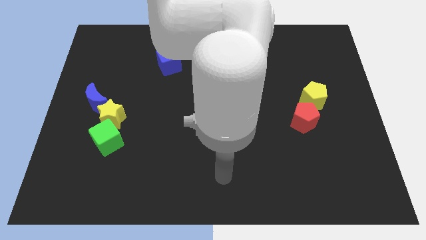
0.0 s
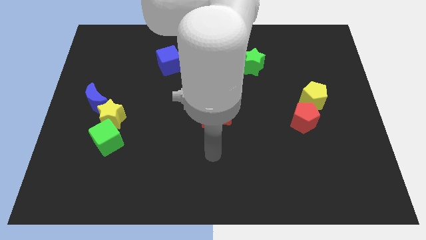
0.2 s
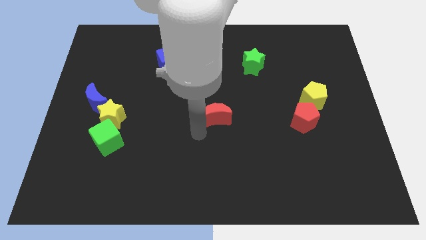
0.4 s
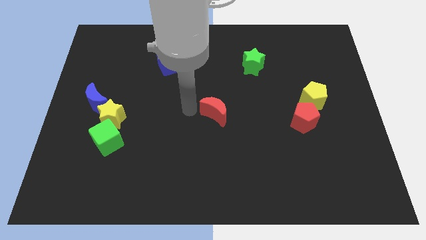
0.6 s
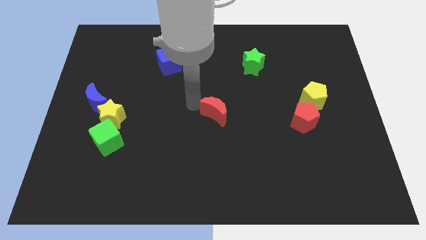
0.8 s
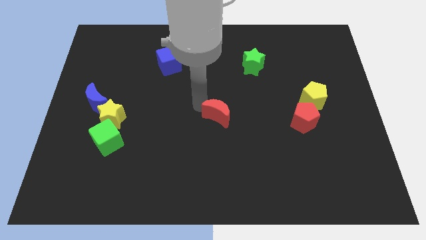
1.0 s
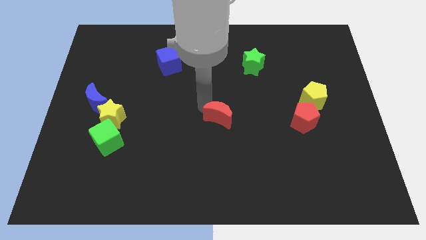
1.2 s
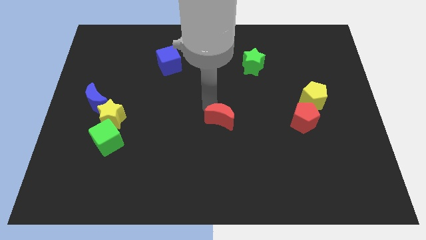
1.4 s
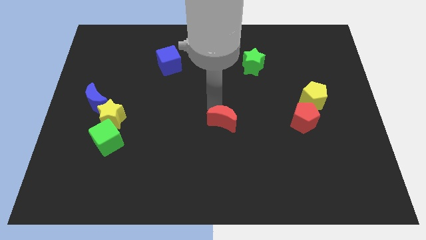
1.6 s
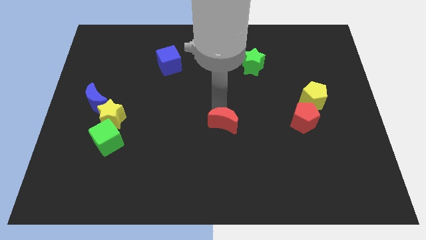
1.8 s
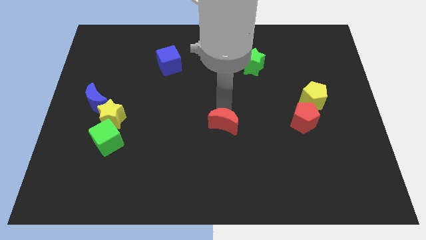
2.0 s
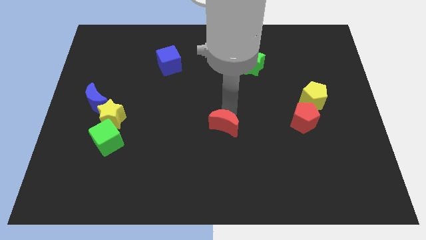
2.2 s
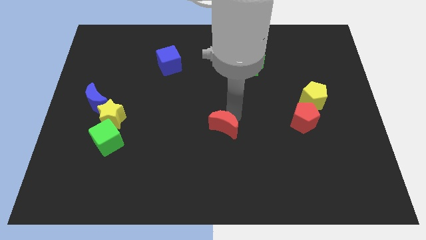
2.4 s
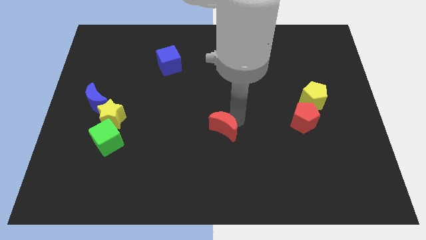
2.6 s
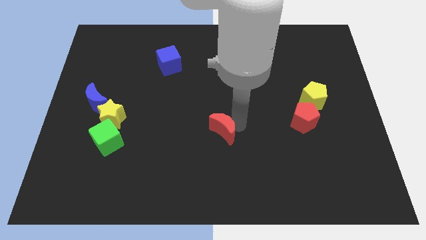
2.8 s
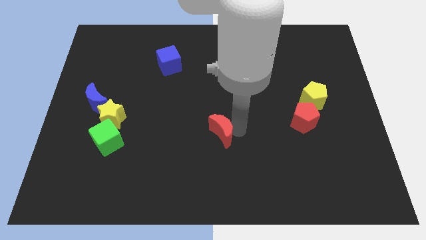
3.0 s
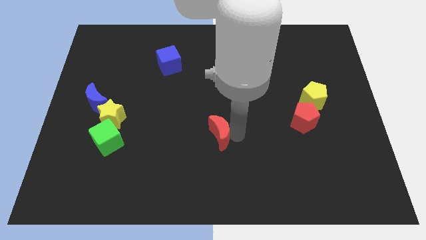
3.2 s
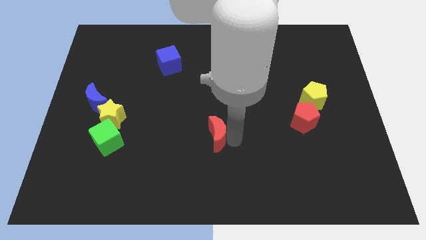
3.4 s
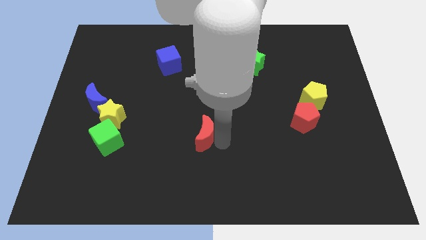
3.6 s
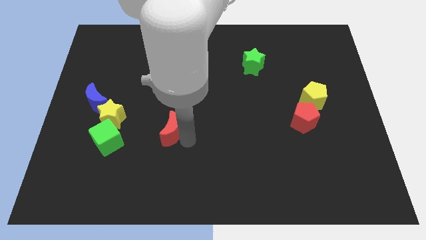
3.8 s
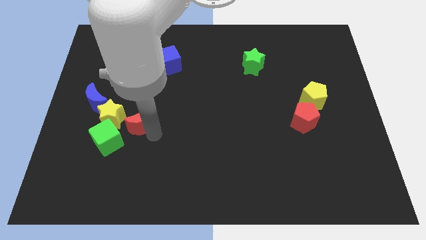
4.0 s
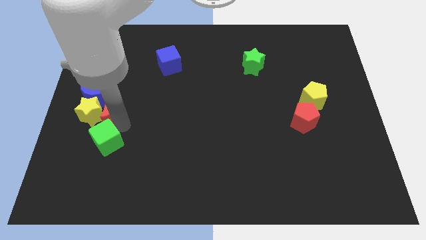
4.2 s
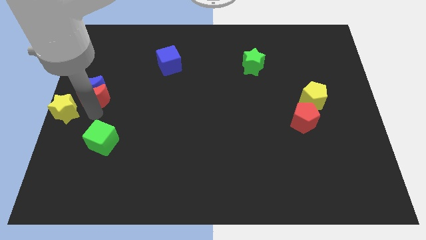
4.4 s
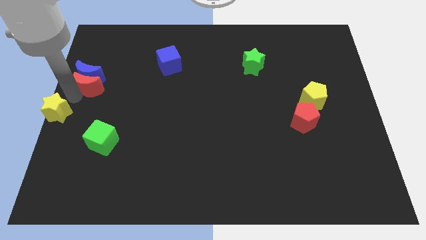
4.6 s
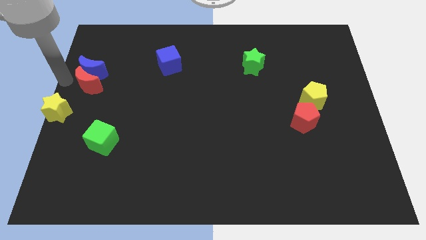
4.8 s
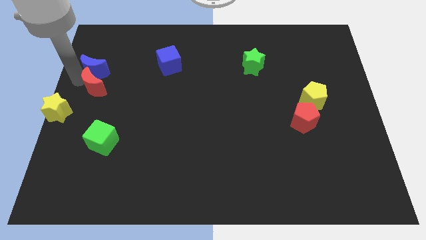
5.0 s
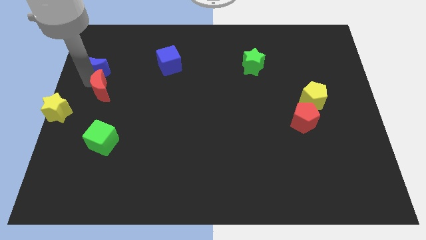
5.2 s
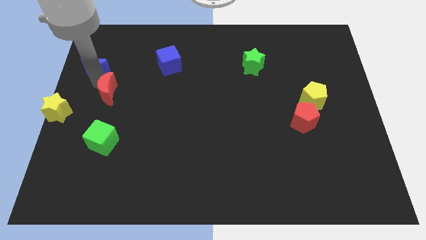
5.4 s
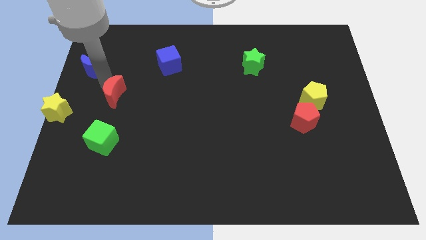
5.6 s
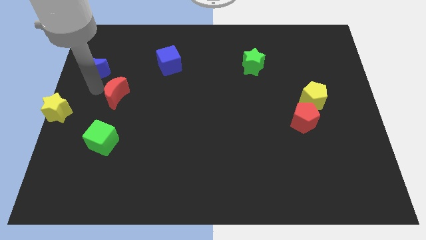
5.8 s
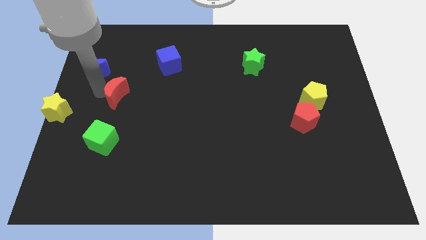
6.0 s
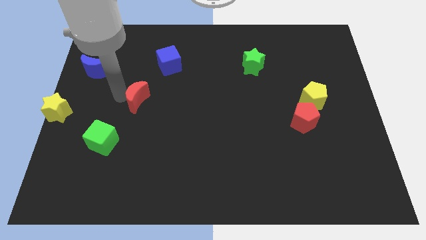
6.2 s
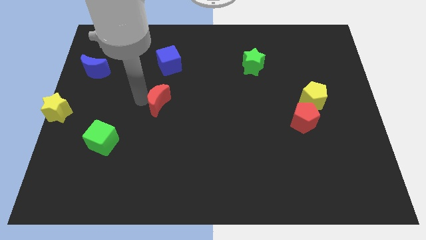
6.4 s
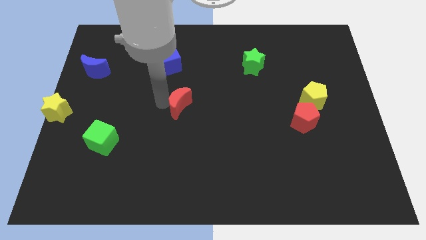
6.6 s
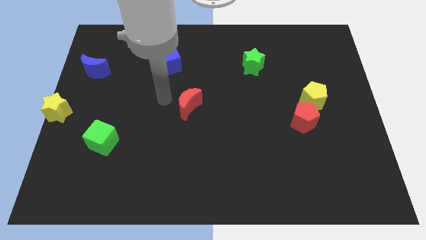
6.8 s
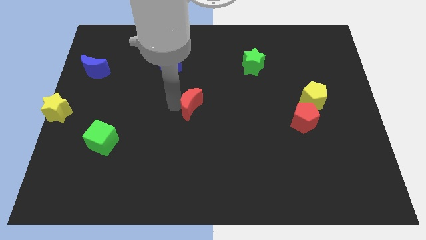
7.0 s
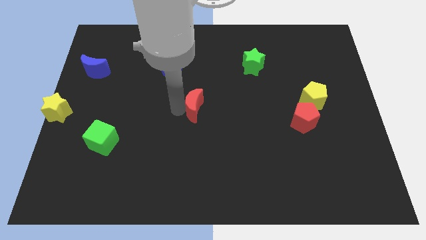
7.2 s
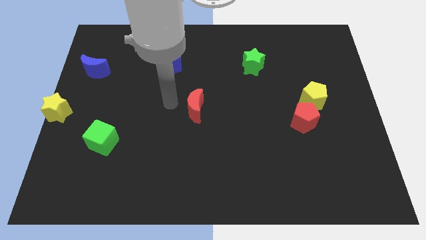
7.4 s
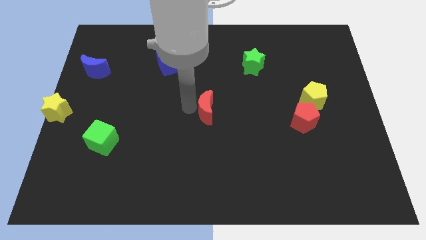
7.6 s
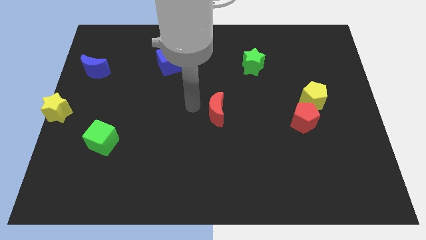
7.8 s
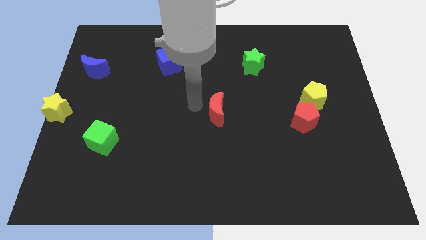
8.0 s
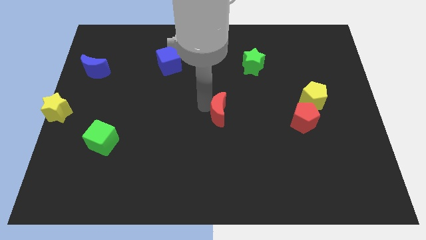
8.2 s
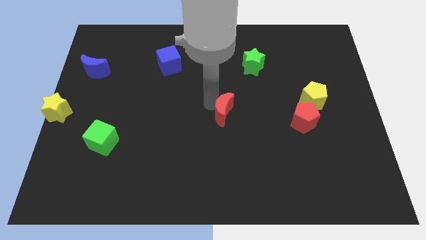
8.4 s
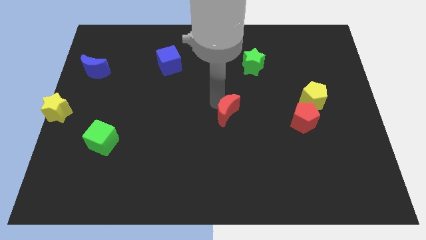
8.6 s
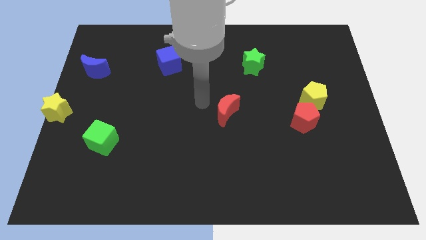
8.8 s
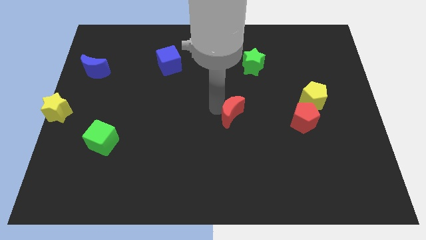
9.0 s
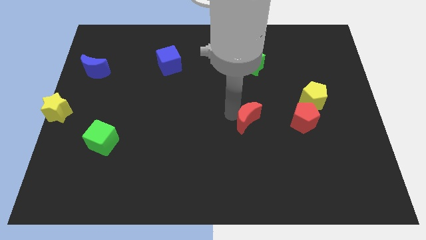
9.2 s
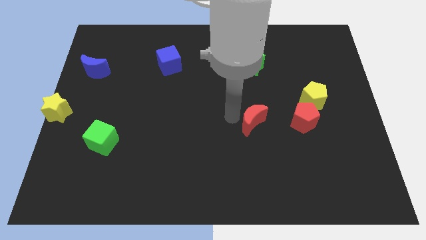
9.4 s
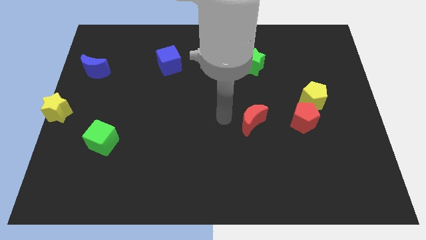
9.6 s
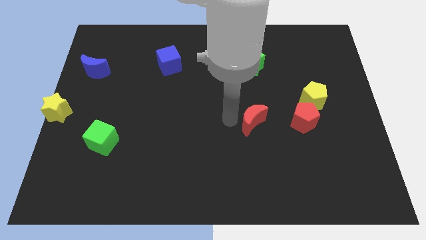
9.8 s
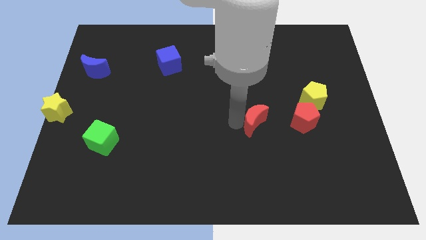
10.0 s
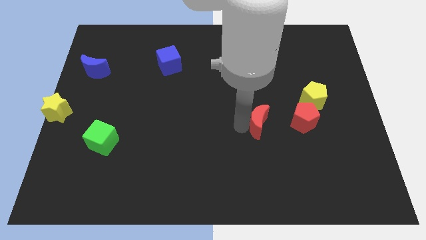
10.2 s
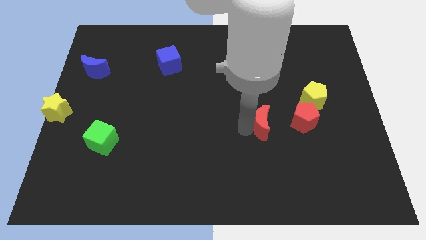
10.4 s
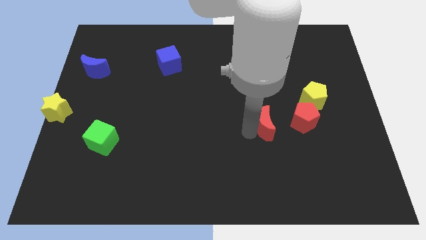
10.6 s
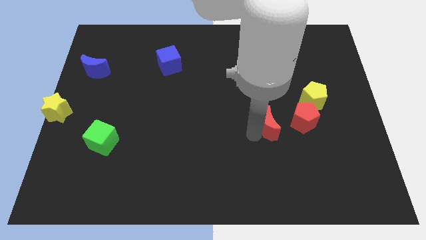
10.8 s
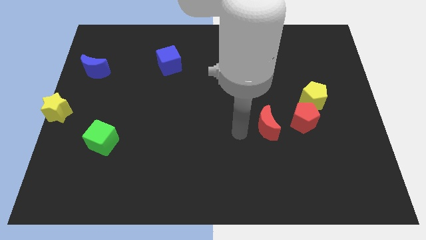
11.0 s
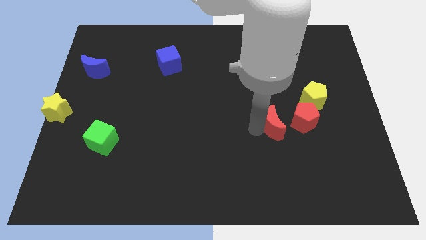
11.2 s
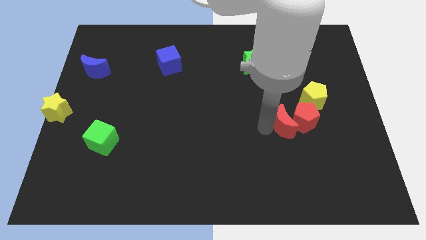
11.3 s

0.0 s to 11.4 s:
move the red moon towards the red pentagon

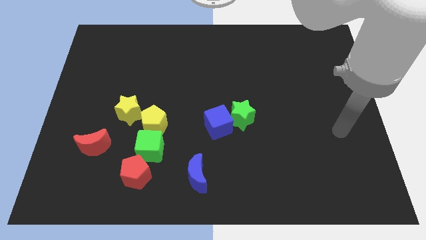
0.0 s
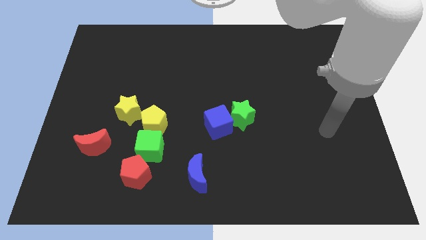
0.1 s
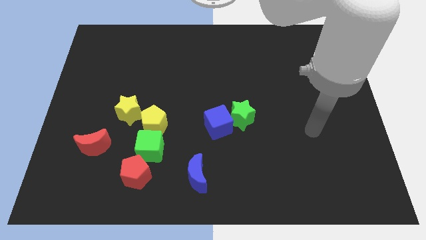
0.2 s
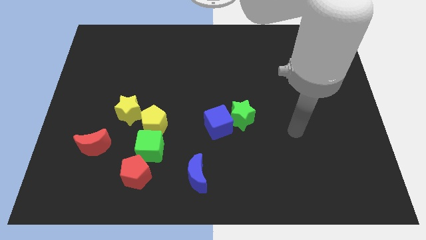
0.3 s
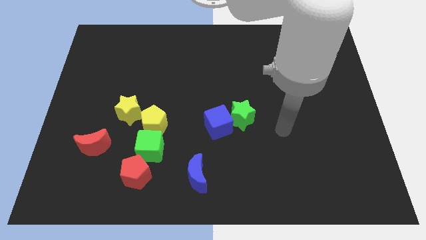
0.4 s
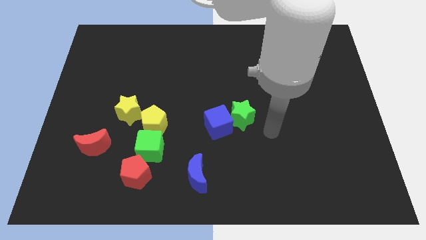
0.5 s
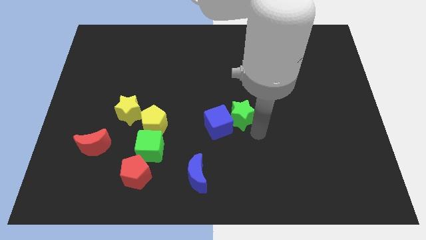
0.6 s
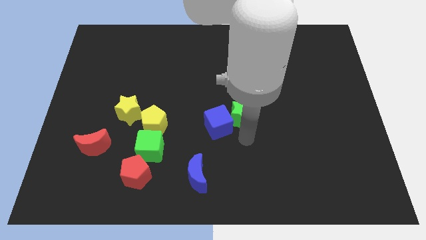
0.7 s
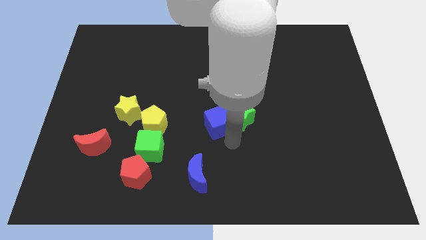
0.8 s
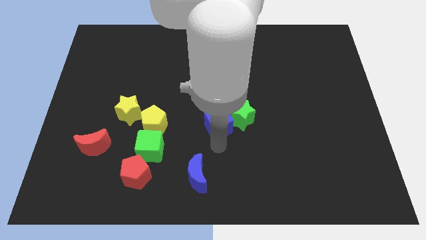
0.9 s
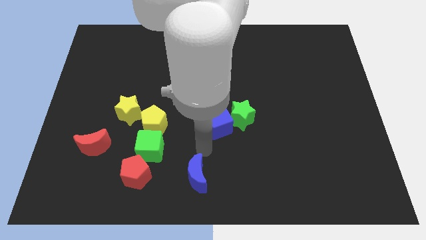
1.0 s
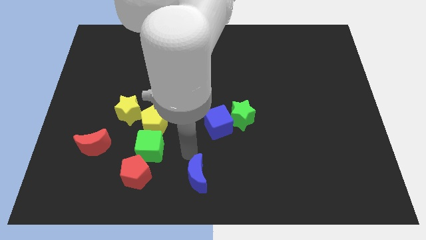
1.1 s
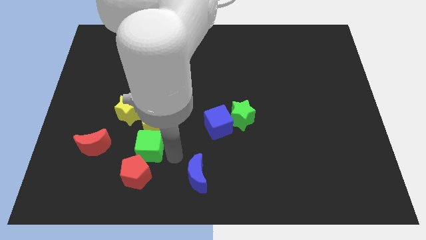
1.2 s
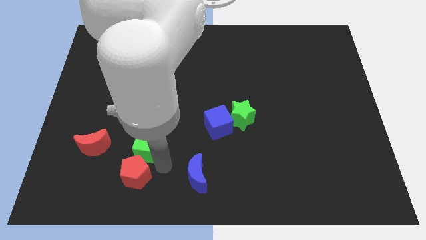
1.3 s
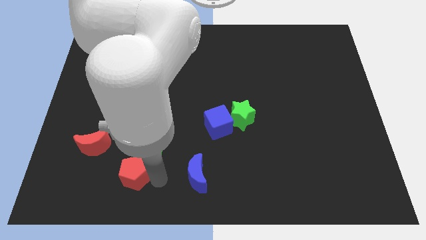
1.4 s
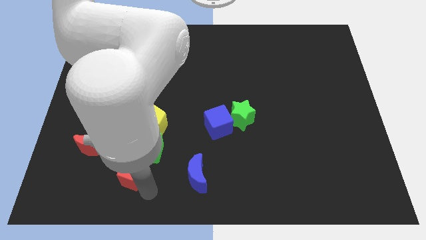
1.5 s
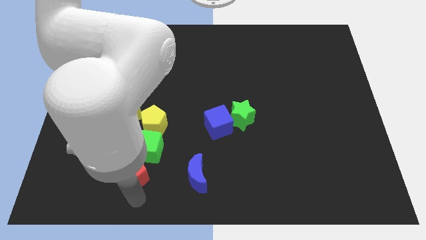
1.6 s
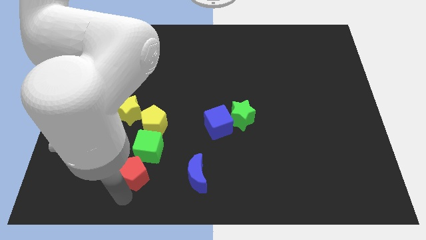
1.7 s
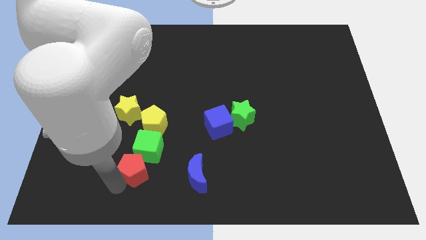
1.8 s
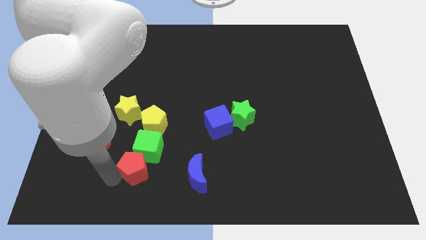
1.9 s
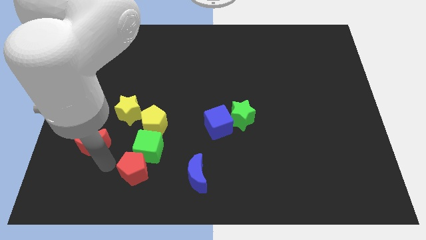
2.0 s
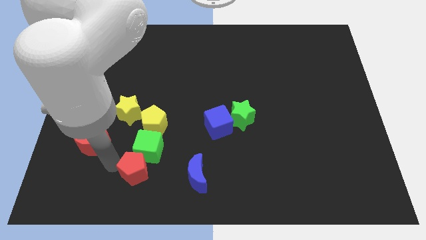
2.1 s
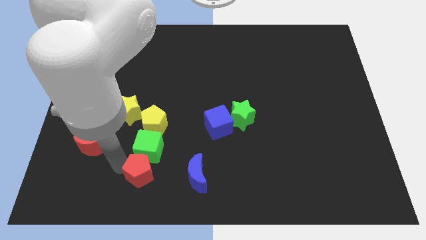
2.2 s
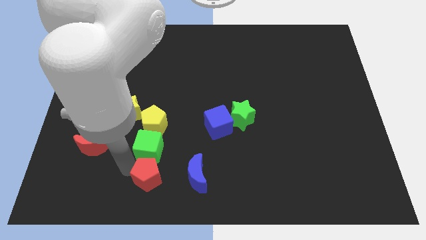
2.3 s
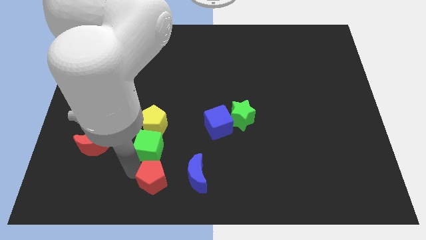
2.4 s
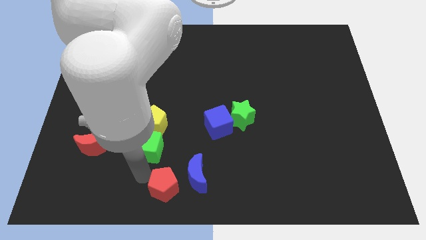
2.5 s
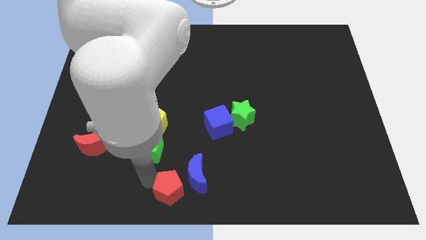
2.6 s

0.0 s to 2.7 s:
push the red pentagon next to the blue moon
